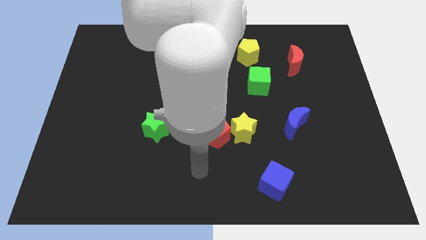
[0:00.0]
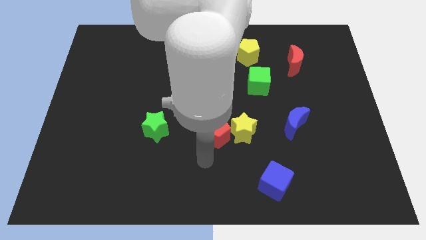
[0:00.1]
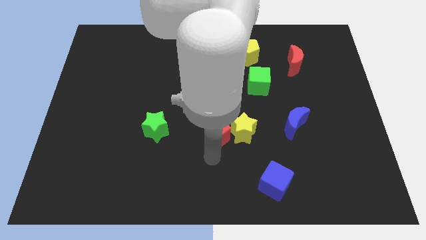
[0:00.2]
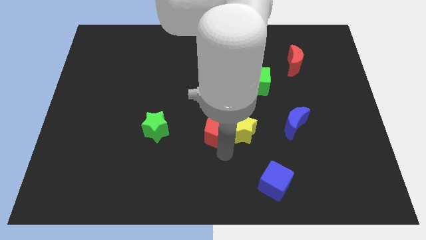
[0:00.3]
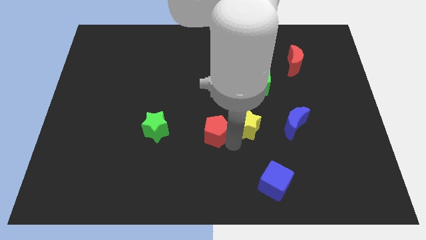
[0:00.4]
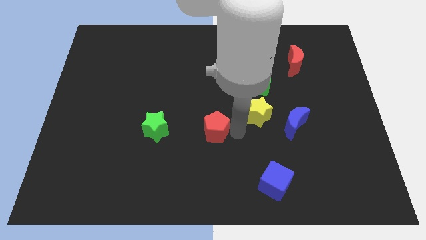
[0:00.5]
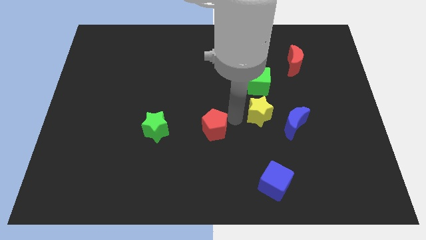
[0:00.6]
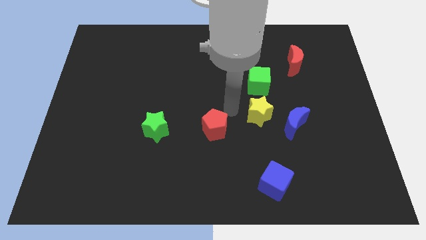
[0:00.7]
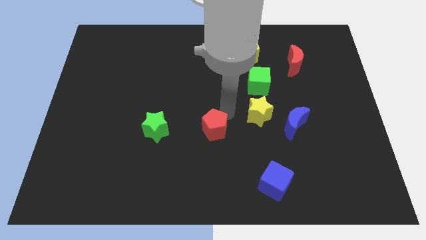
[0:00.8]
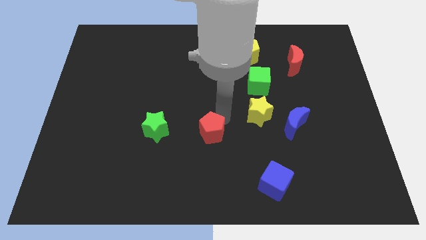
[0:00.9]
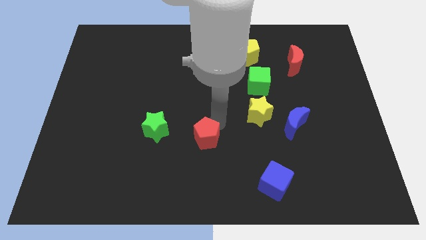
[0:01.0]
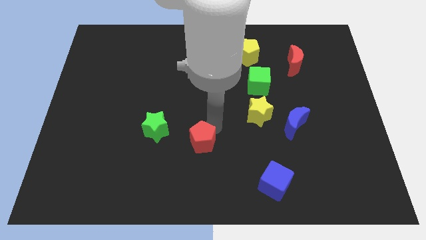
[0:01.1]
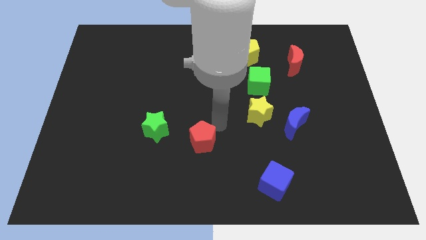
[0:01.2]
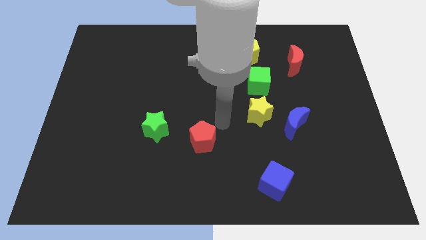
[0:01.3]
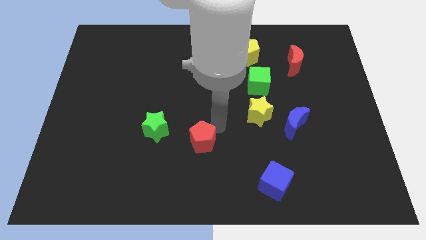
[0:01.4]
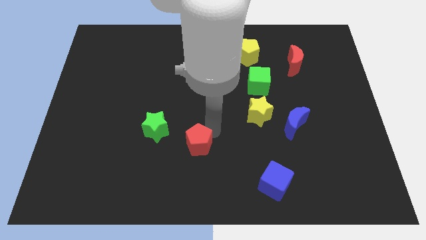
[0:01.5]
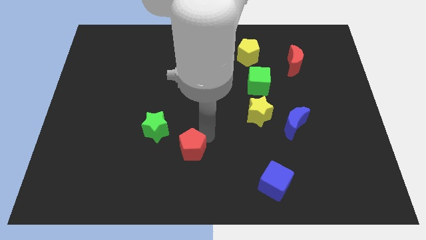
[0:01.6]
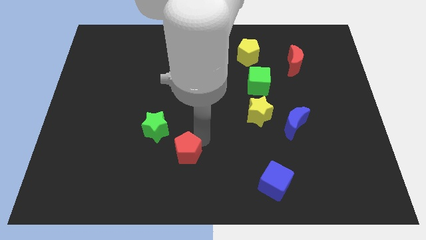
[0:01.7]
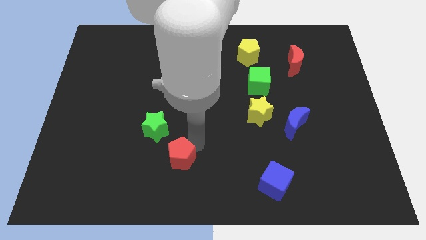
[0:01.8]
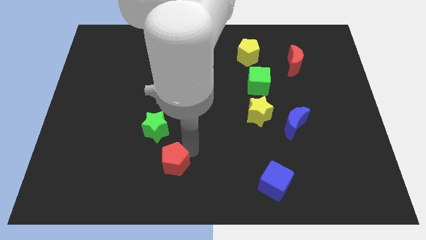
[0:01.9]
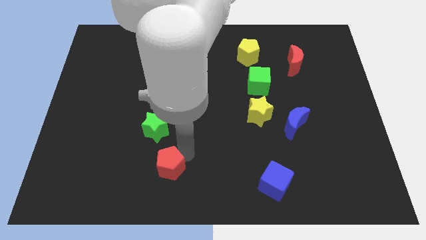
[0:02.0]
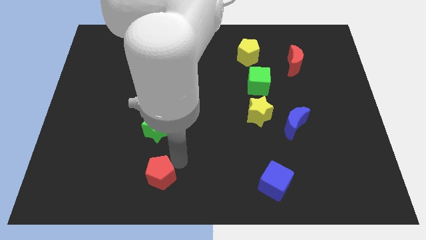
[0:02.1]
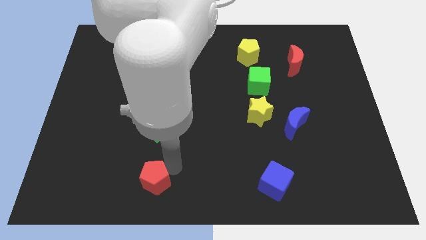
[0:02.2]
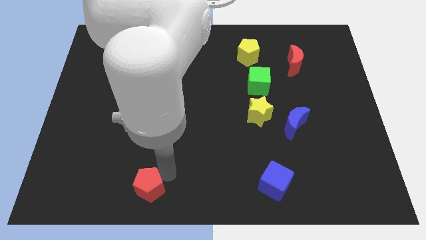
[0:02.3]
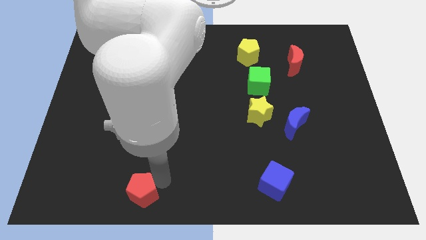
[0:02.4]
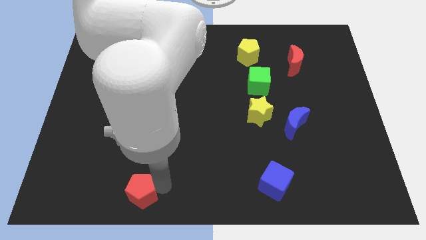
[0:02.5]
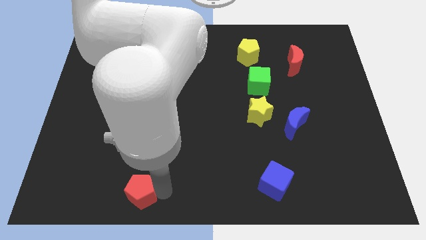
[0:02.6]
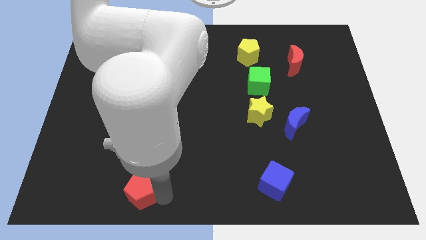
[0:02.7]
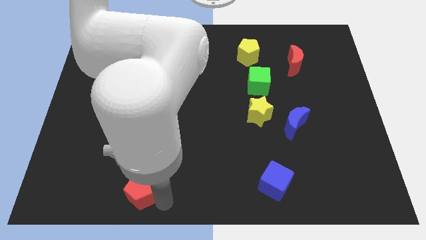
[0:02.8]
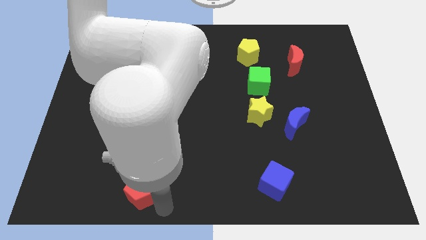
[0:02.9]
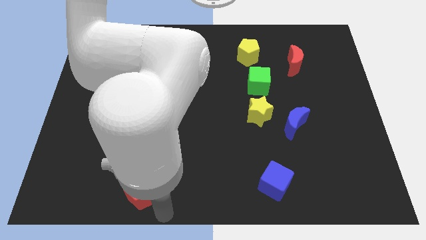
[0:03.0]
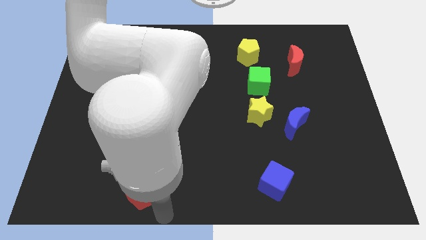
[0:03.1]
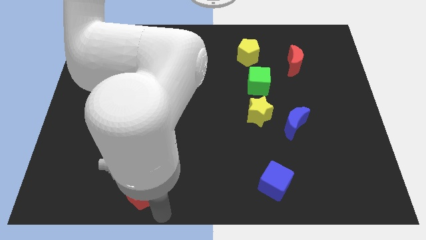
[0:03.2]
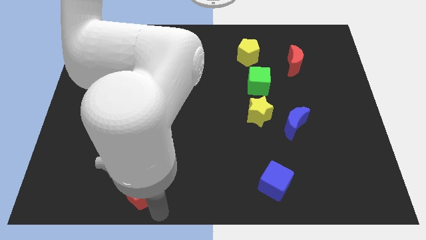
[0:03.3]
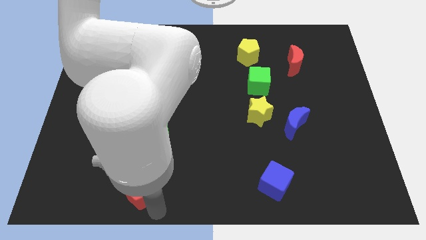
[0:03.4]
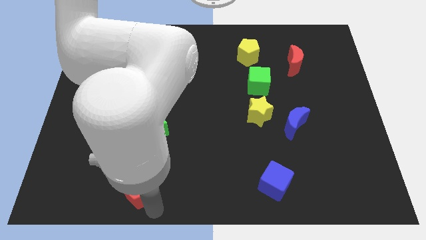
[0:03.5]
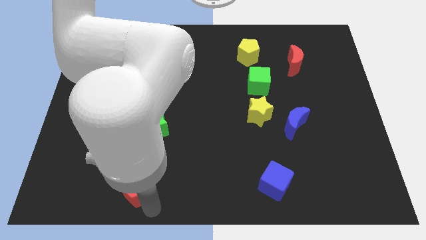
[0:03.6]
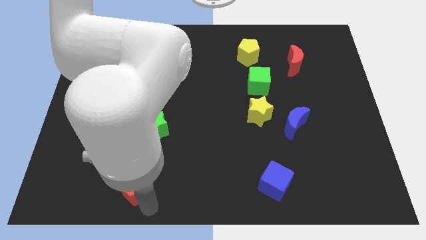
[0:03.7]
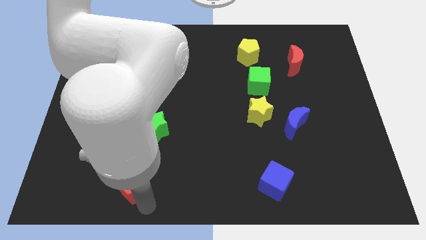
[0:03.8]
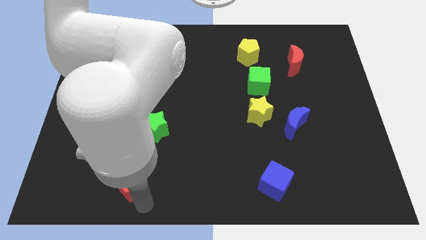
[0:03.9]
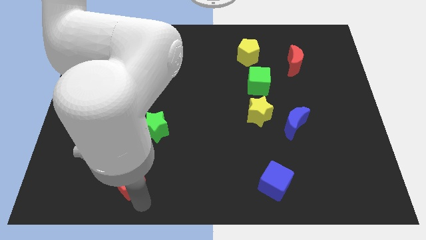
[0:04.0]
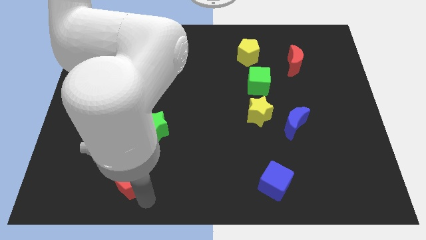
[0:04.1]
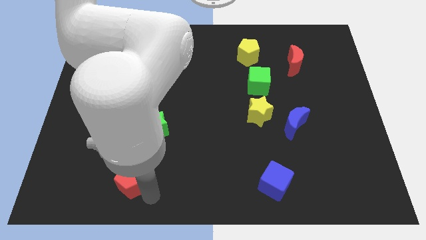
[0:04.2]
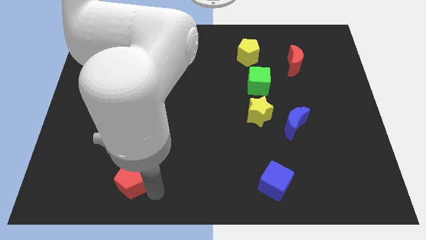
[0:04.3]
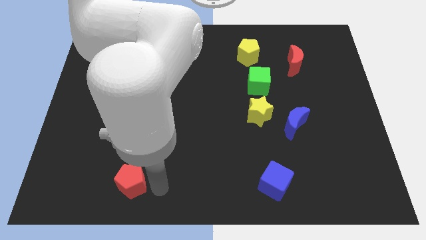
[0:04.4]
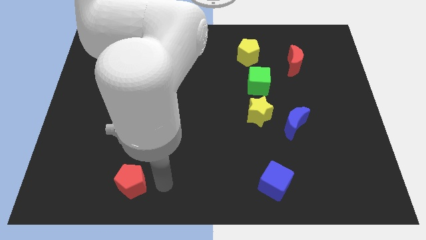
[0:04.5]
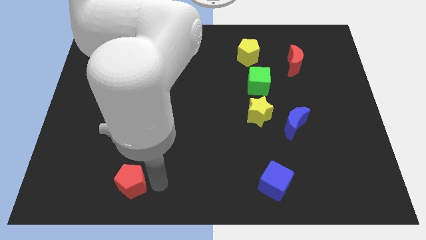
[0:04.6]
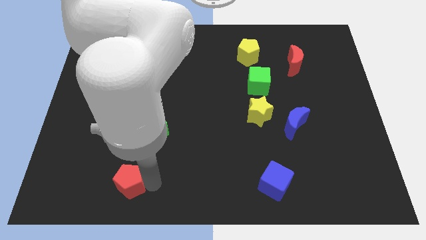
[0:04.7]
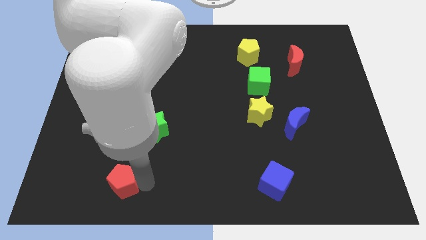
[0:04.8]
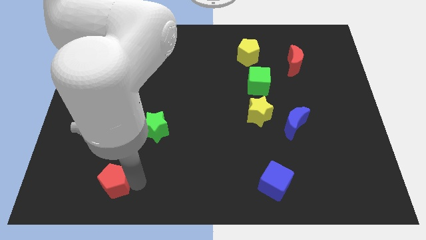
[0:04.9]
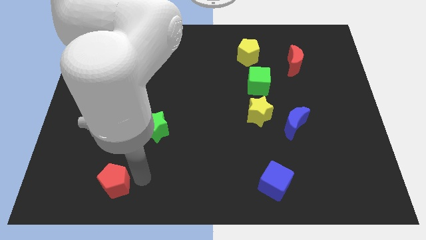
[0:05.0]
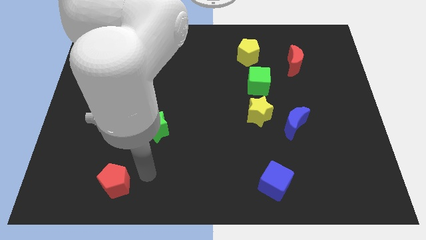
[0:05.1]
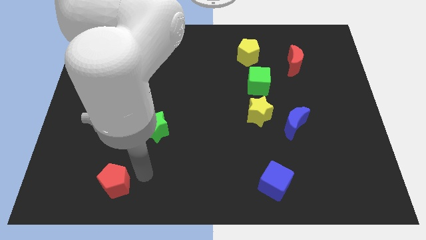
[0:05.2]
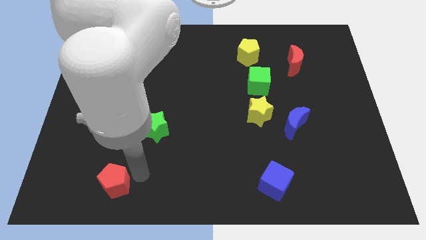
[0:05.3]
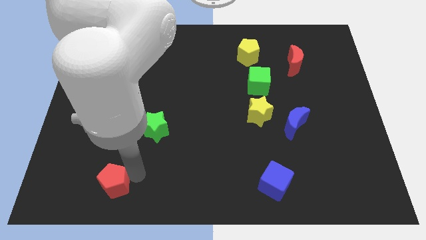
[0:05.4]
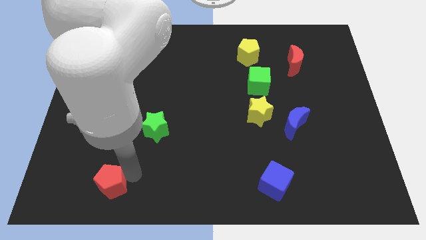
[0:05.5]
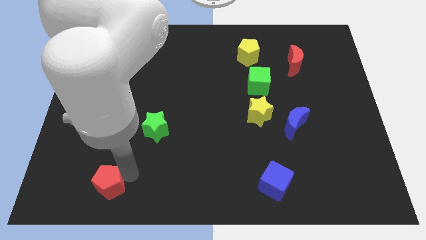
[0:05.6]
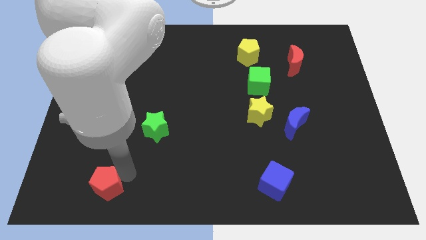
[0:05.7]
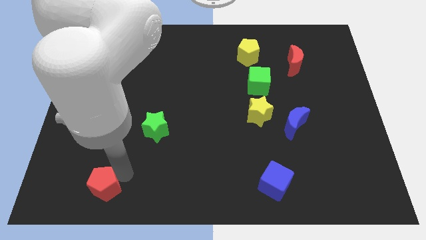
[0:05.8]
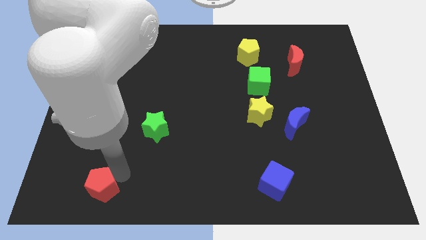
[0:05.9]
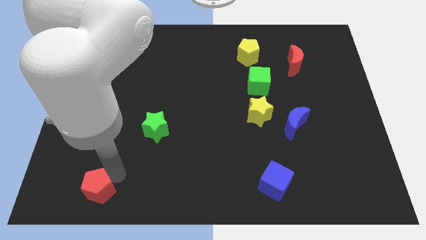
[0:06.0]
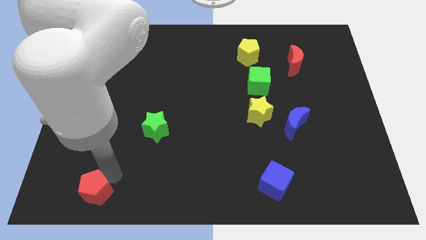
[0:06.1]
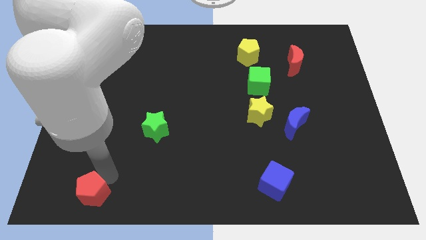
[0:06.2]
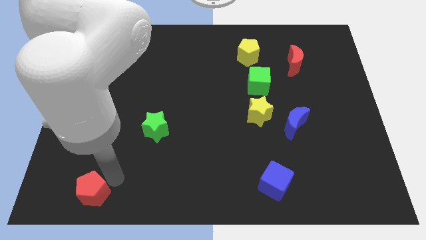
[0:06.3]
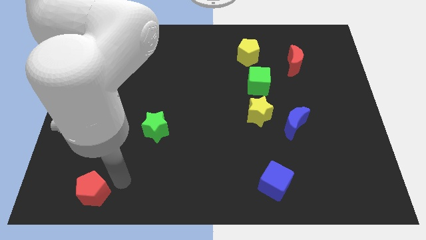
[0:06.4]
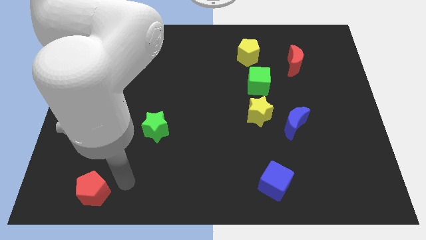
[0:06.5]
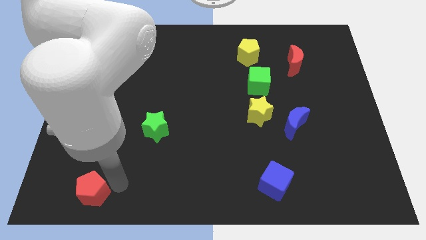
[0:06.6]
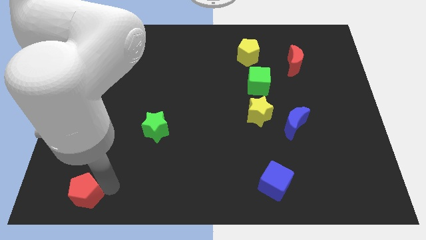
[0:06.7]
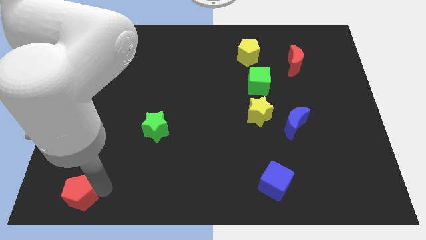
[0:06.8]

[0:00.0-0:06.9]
move the red pentagon to the lower left corner
